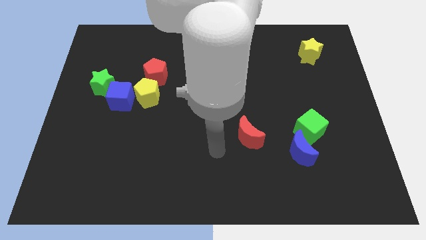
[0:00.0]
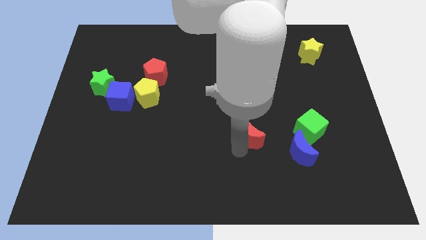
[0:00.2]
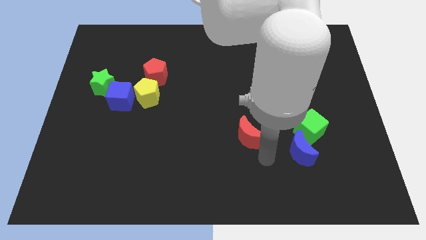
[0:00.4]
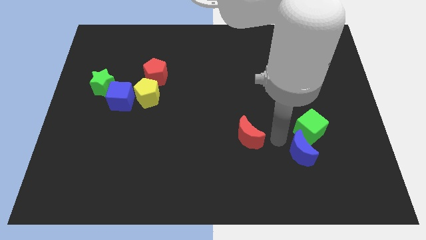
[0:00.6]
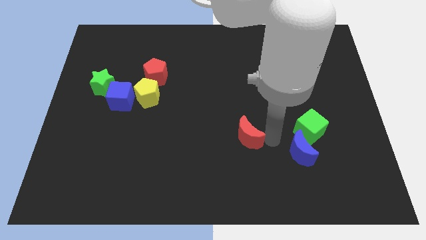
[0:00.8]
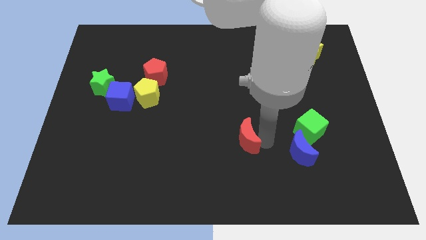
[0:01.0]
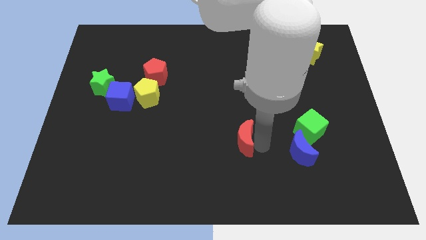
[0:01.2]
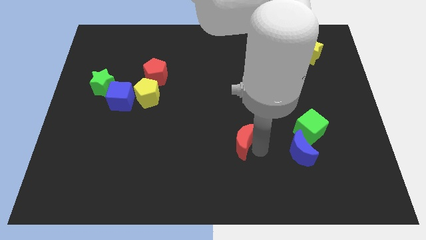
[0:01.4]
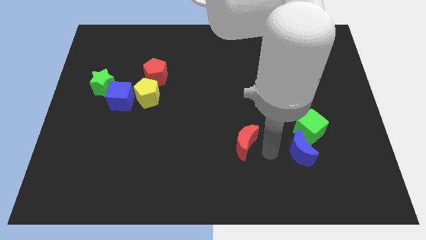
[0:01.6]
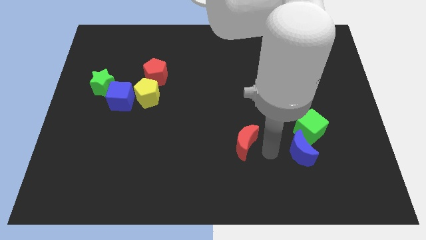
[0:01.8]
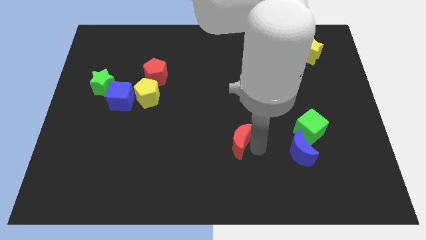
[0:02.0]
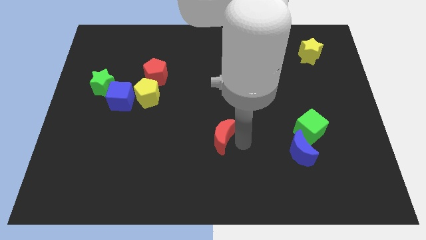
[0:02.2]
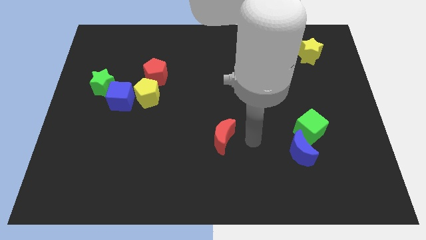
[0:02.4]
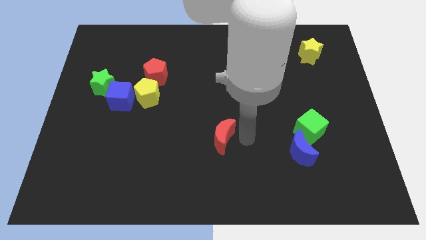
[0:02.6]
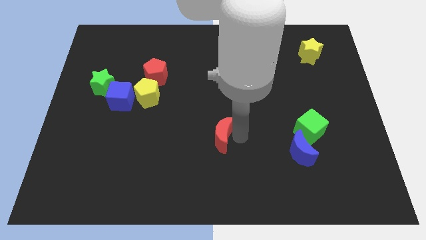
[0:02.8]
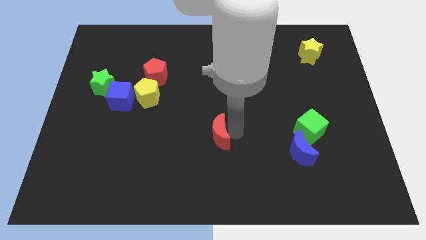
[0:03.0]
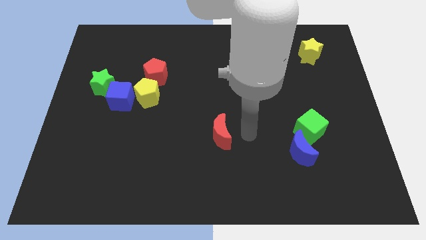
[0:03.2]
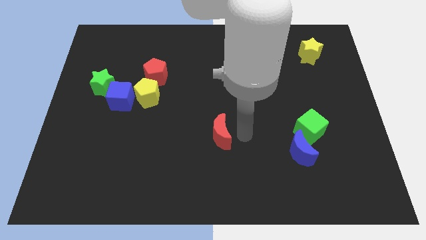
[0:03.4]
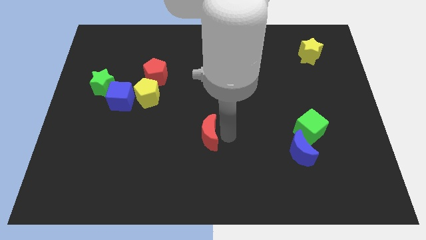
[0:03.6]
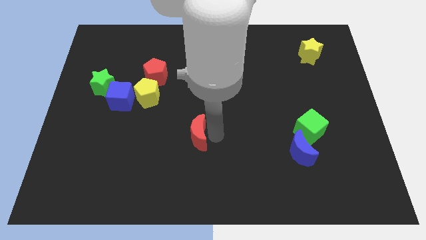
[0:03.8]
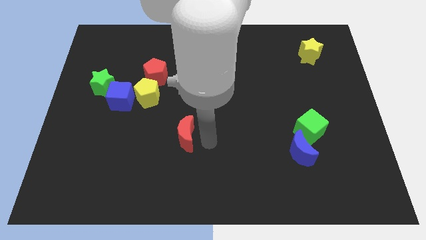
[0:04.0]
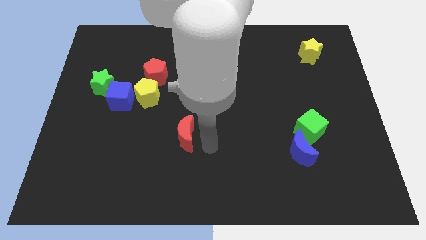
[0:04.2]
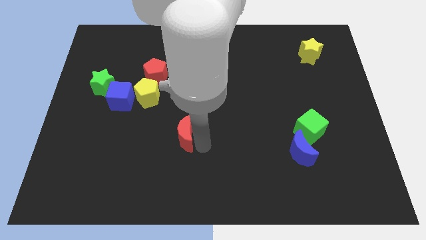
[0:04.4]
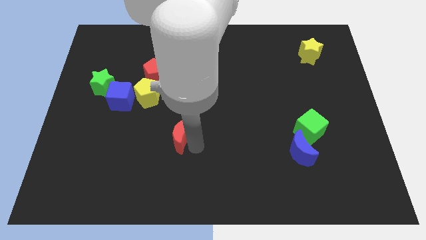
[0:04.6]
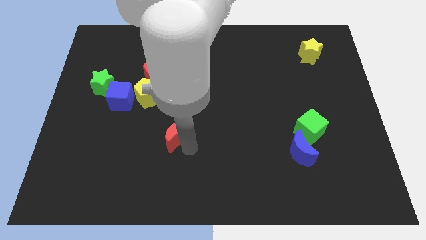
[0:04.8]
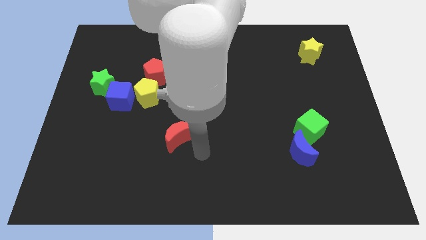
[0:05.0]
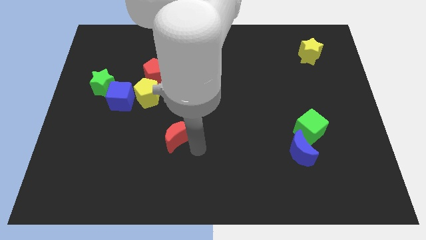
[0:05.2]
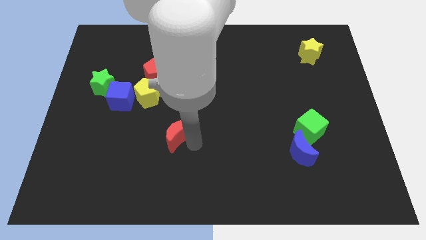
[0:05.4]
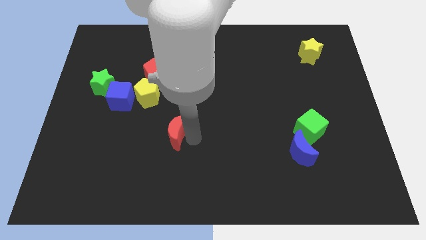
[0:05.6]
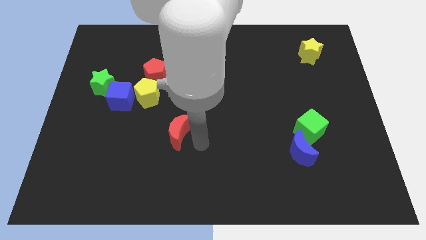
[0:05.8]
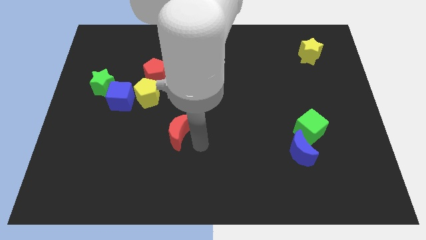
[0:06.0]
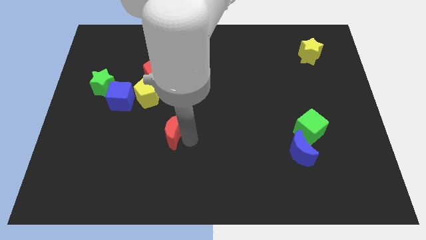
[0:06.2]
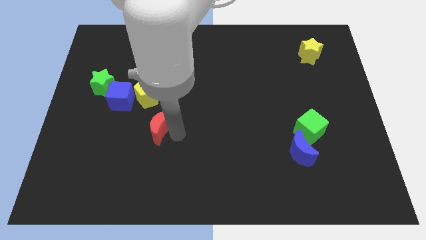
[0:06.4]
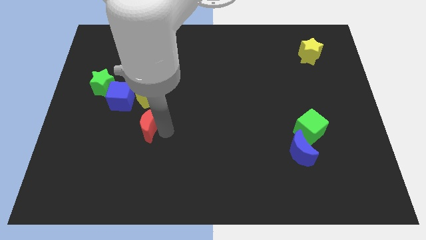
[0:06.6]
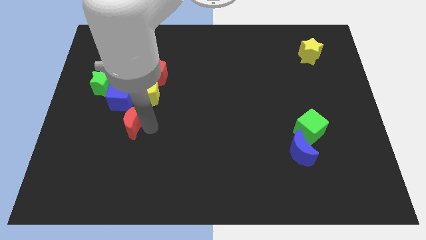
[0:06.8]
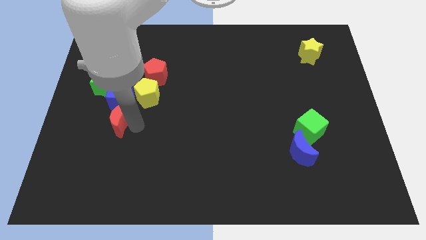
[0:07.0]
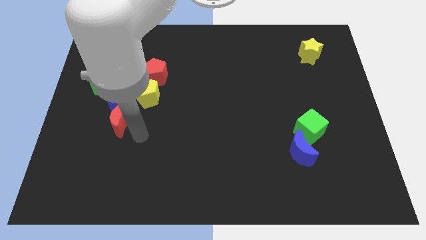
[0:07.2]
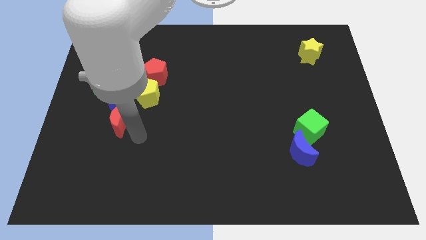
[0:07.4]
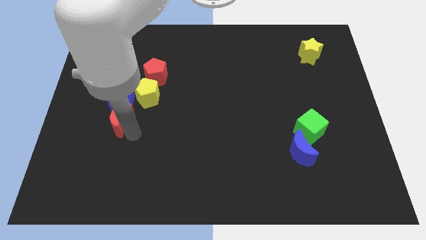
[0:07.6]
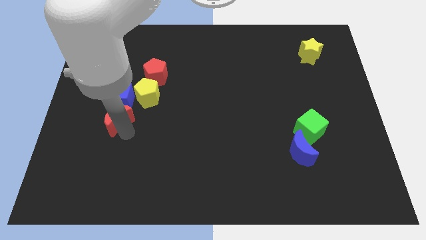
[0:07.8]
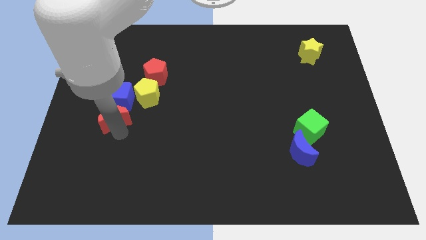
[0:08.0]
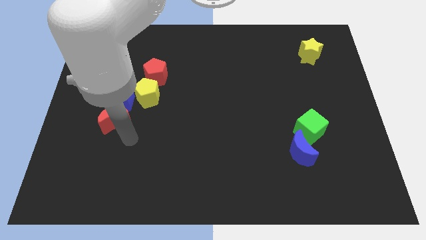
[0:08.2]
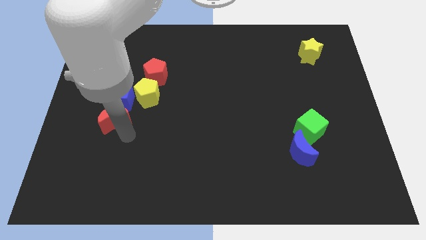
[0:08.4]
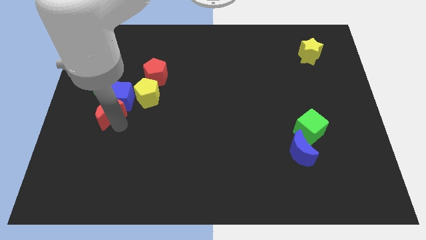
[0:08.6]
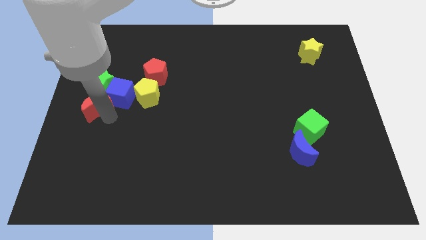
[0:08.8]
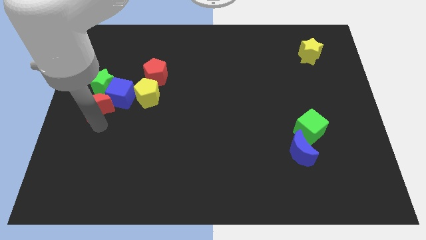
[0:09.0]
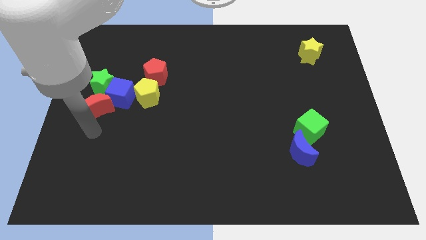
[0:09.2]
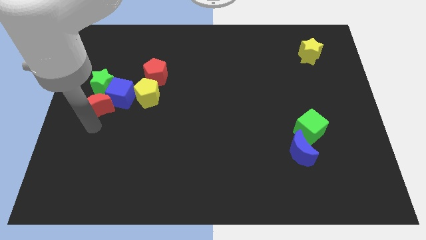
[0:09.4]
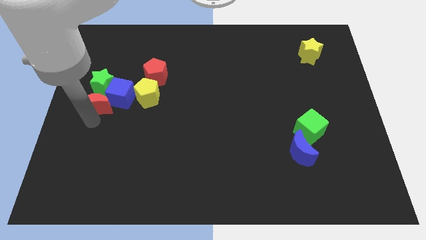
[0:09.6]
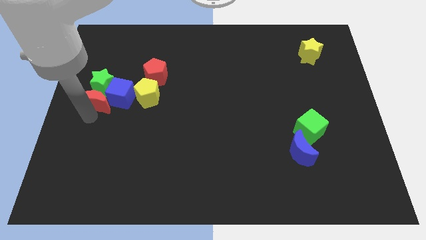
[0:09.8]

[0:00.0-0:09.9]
move the red moon towards the green star

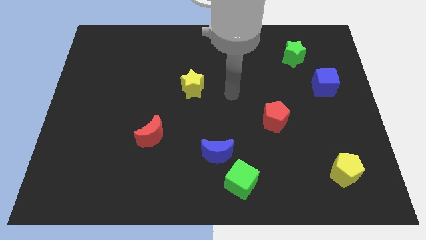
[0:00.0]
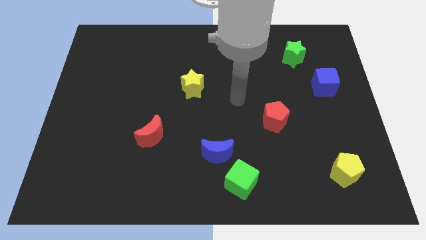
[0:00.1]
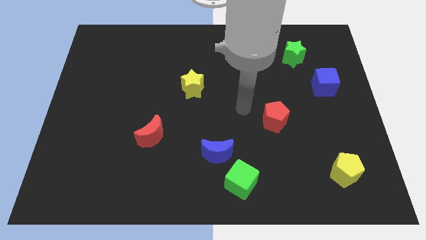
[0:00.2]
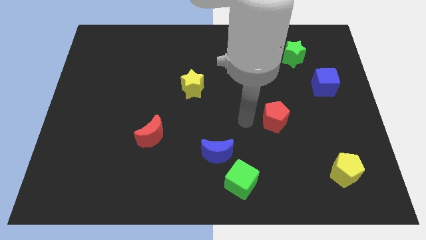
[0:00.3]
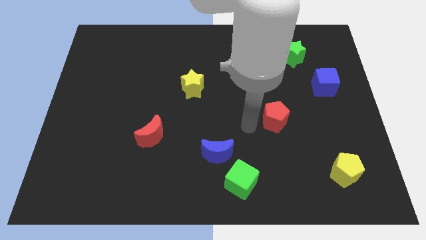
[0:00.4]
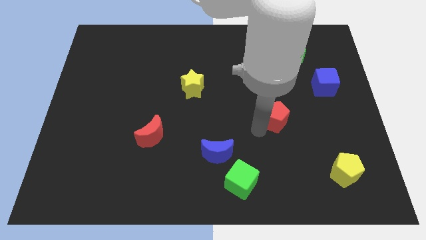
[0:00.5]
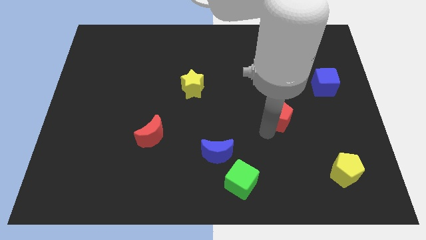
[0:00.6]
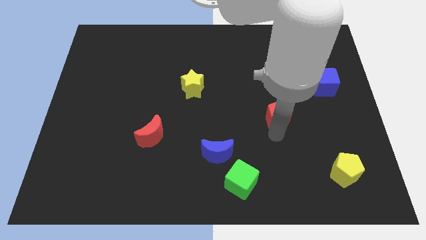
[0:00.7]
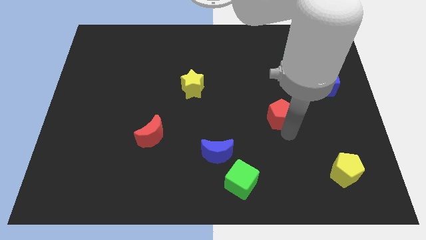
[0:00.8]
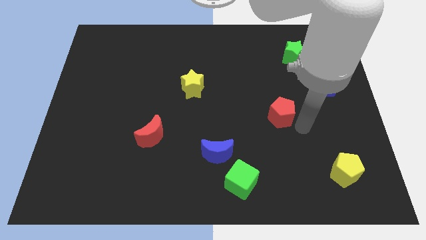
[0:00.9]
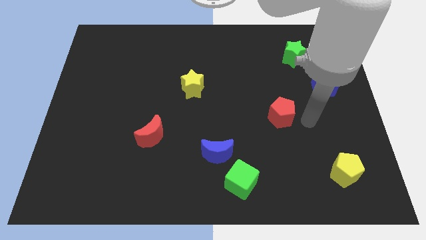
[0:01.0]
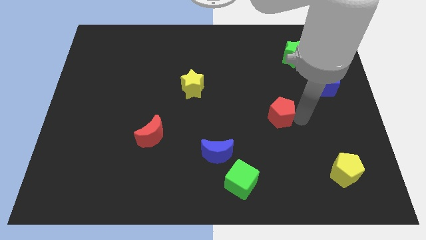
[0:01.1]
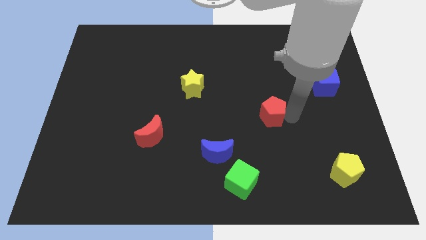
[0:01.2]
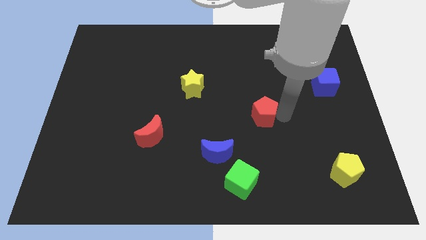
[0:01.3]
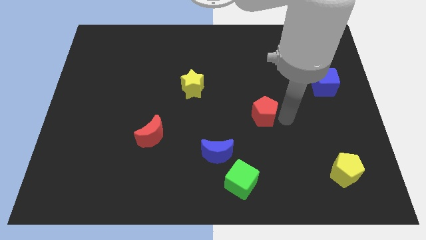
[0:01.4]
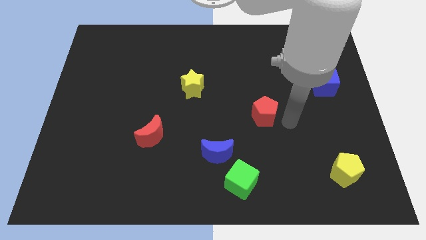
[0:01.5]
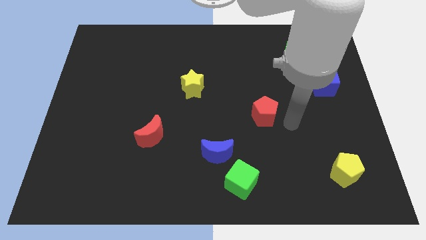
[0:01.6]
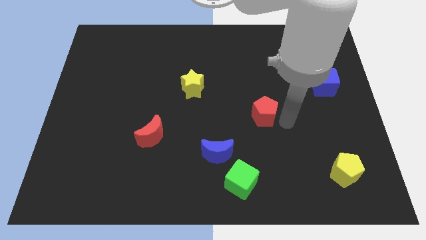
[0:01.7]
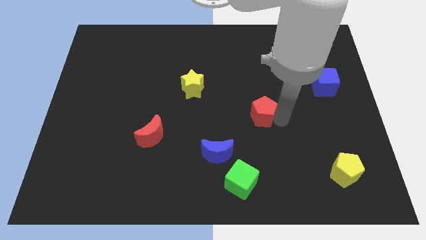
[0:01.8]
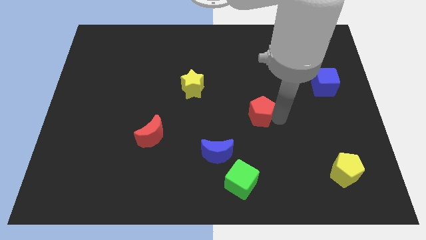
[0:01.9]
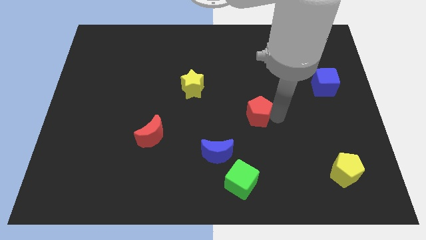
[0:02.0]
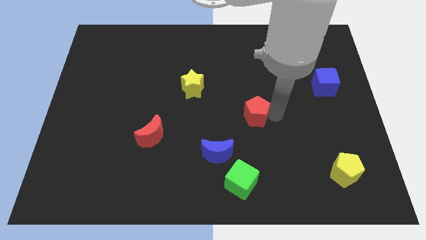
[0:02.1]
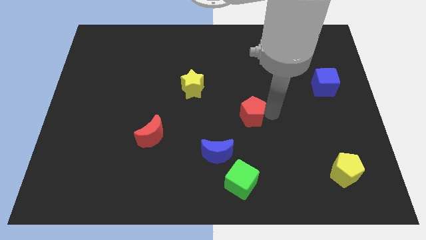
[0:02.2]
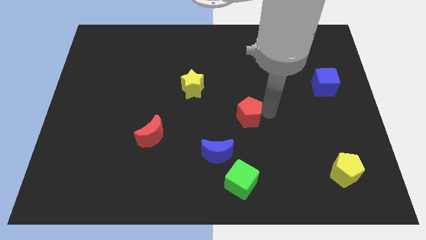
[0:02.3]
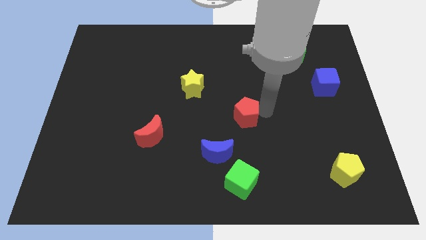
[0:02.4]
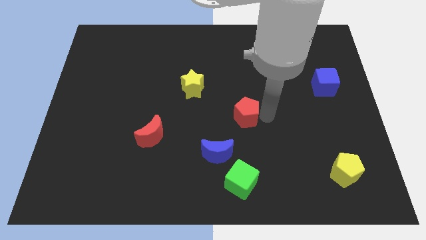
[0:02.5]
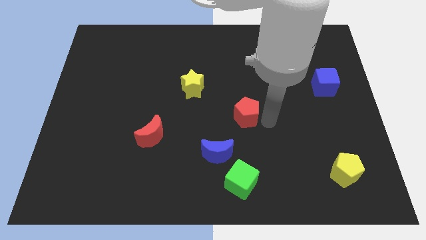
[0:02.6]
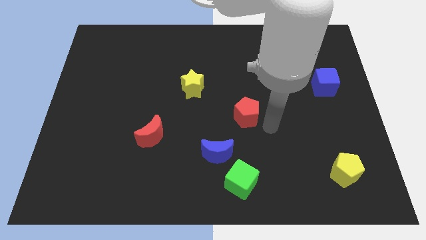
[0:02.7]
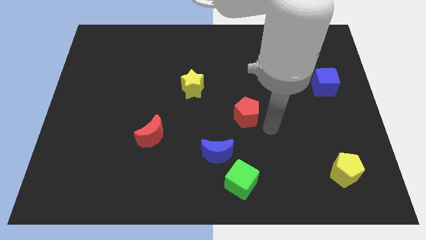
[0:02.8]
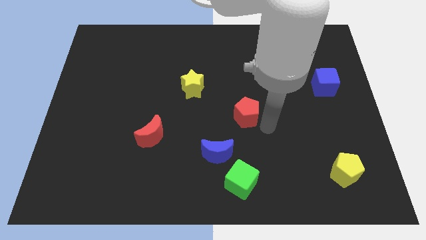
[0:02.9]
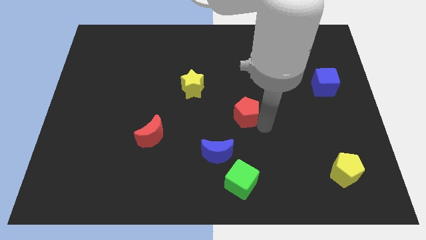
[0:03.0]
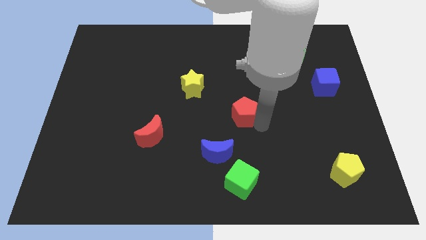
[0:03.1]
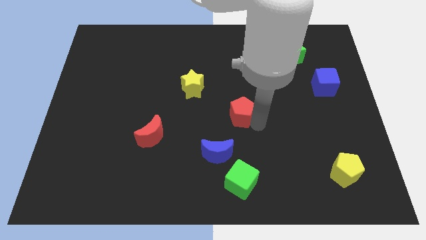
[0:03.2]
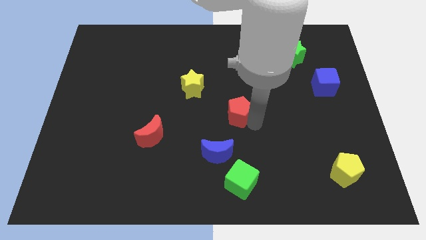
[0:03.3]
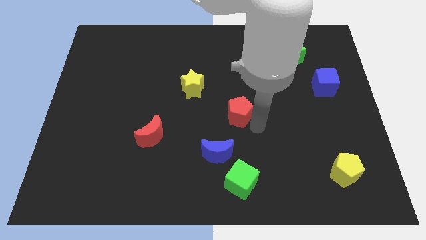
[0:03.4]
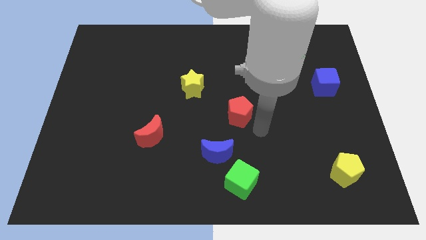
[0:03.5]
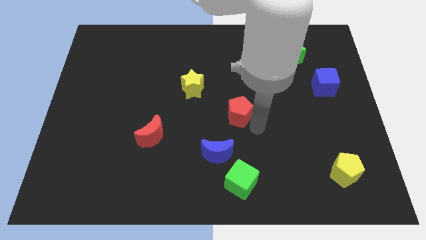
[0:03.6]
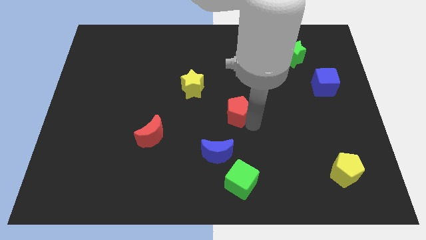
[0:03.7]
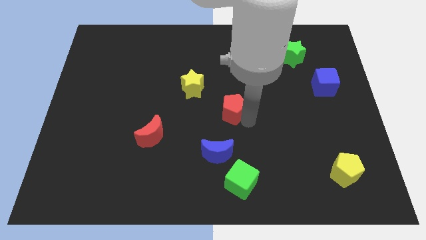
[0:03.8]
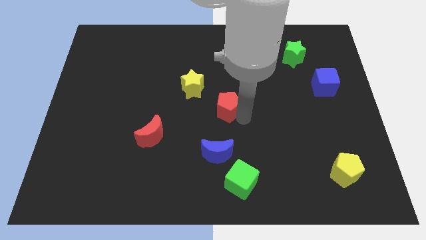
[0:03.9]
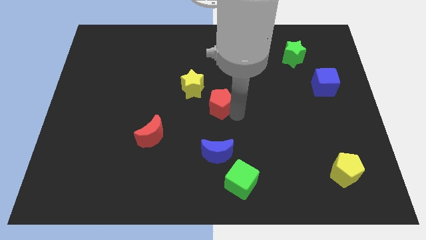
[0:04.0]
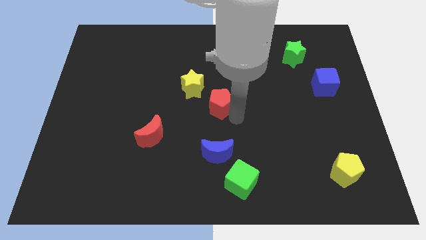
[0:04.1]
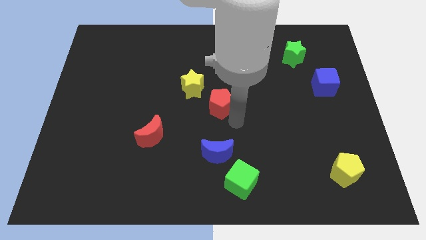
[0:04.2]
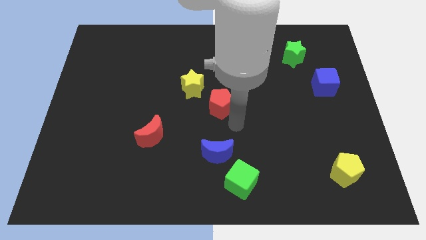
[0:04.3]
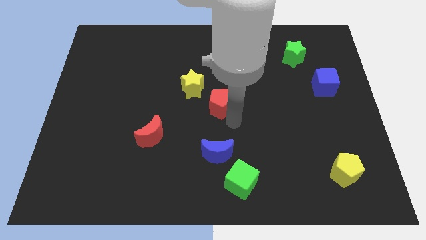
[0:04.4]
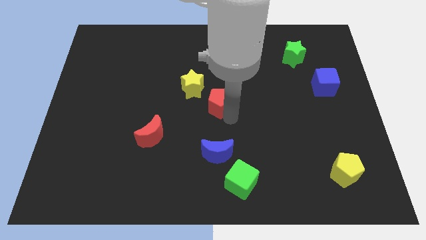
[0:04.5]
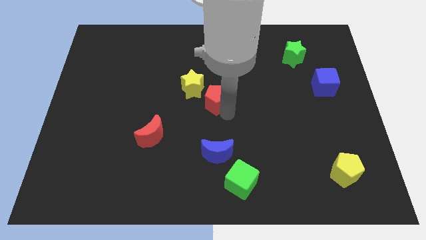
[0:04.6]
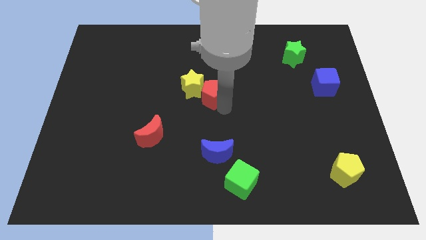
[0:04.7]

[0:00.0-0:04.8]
slide the red pentagon to the yellow star
